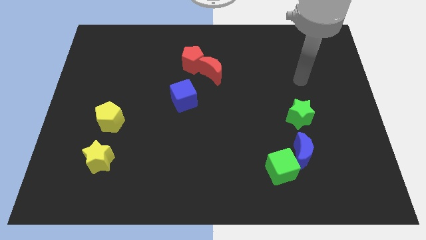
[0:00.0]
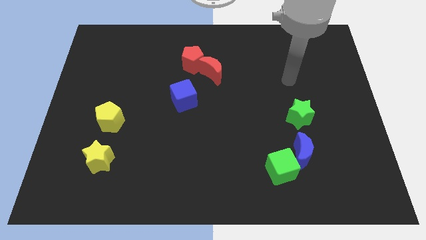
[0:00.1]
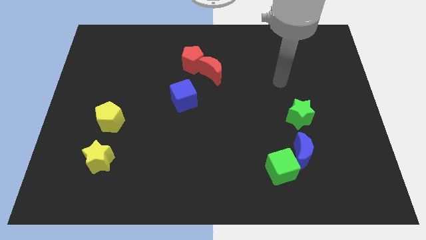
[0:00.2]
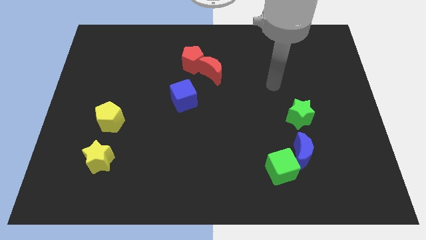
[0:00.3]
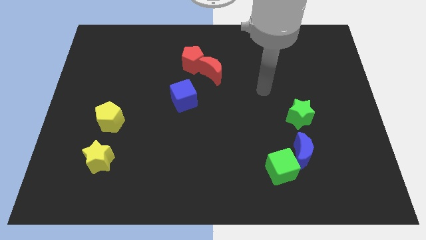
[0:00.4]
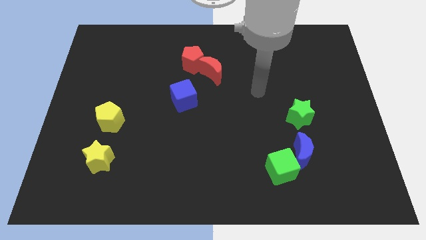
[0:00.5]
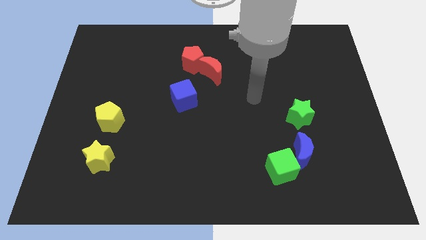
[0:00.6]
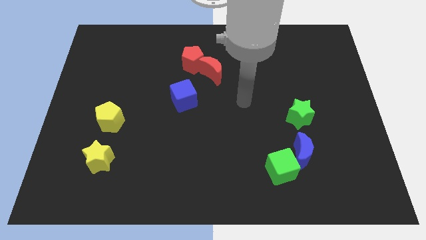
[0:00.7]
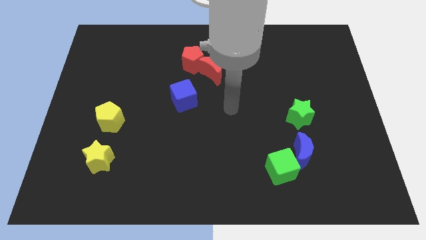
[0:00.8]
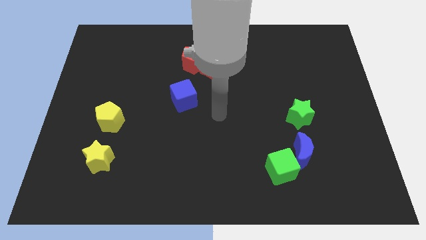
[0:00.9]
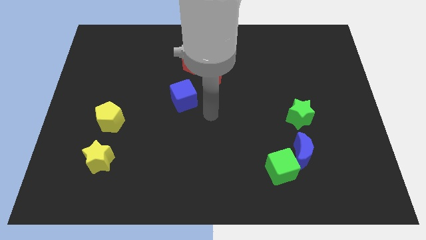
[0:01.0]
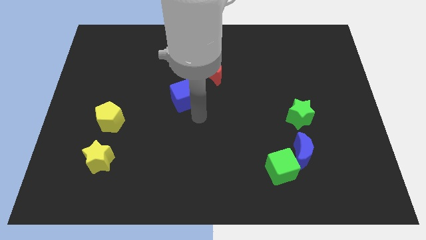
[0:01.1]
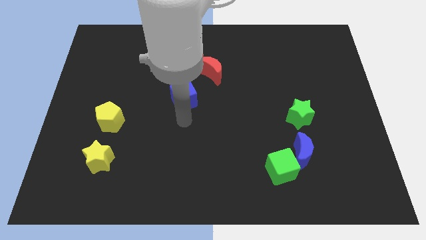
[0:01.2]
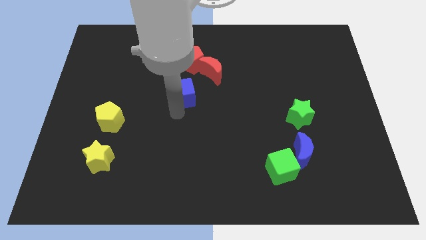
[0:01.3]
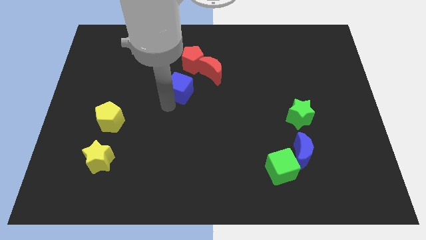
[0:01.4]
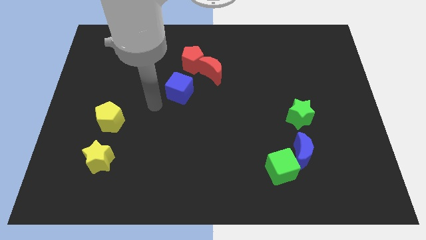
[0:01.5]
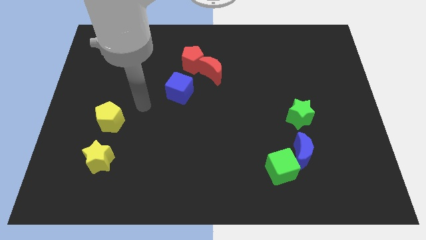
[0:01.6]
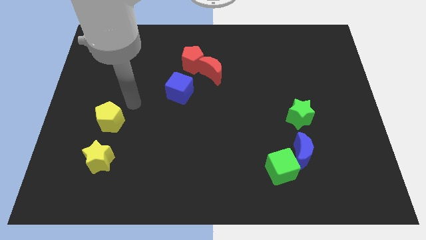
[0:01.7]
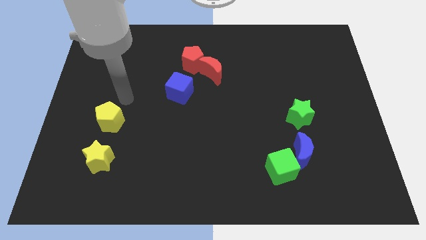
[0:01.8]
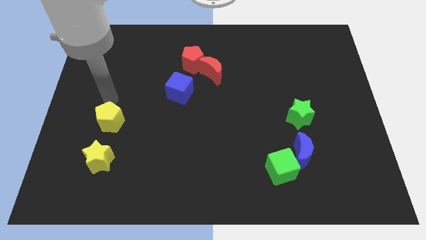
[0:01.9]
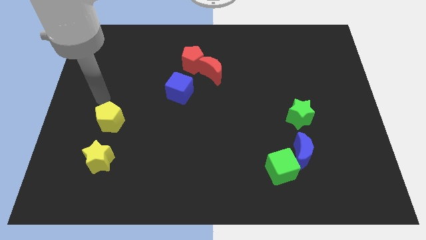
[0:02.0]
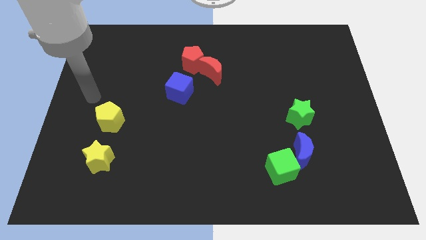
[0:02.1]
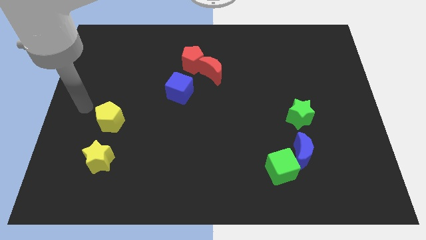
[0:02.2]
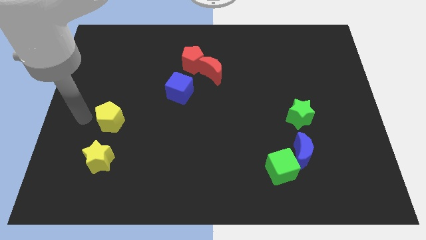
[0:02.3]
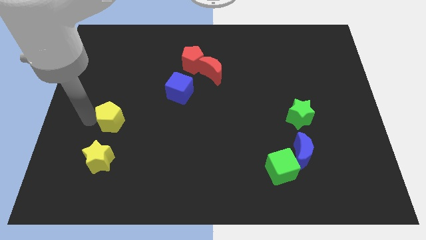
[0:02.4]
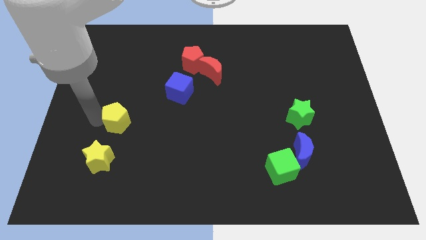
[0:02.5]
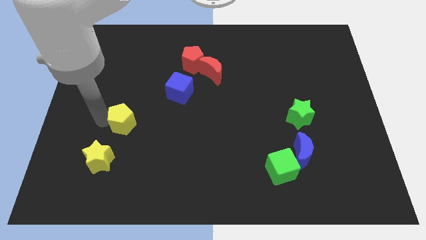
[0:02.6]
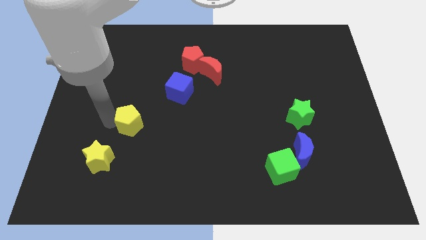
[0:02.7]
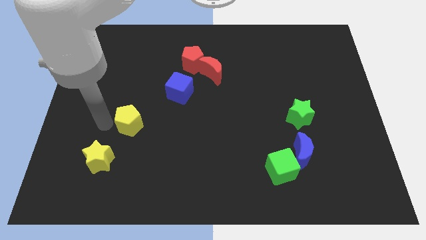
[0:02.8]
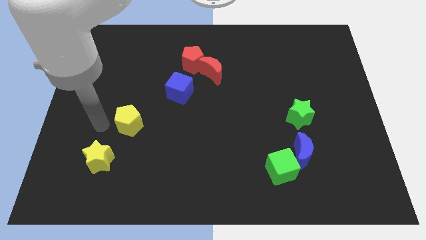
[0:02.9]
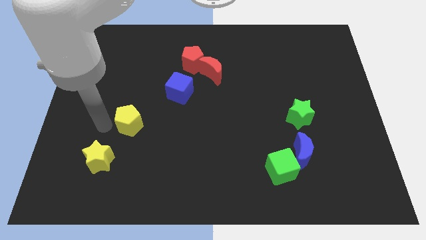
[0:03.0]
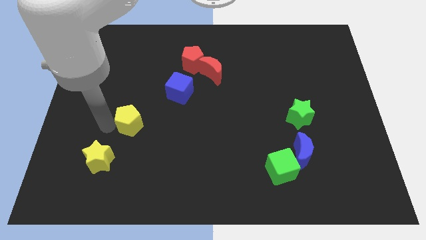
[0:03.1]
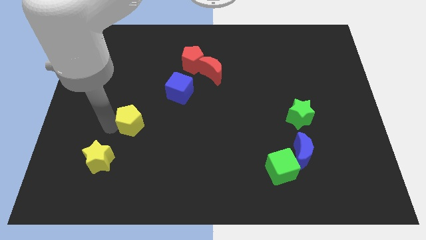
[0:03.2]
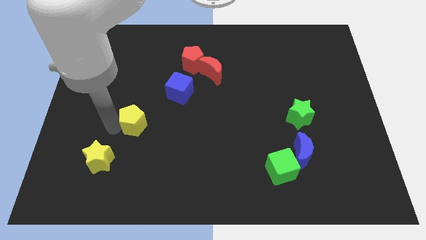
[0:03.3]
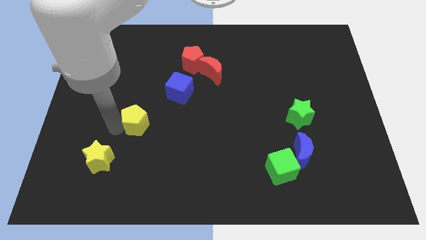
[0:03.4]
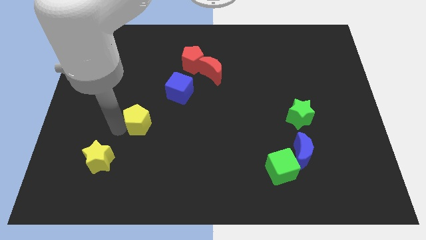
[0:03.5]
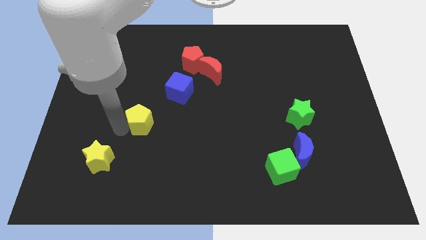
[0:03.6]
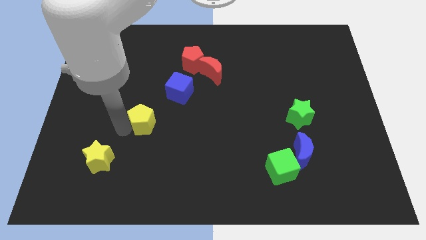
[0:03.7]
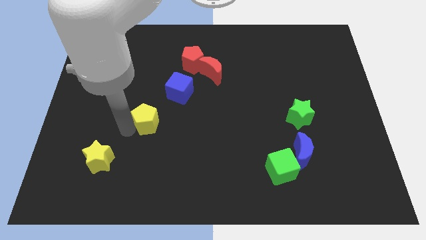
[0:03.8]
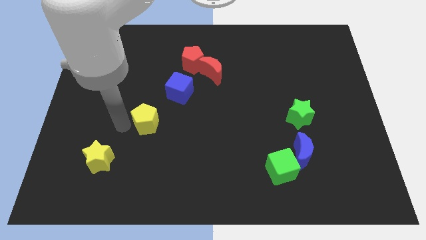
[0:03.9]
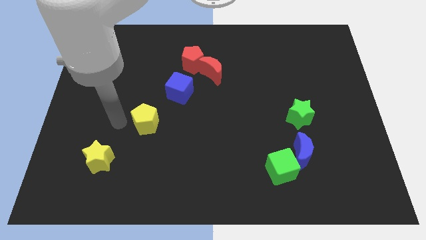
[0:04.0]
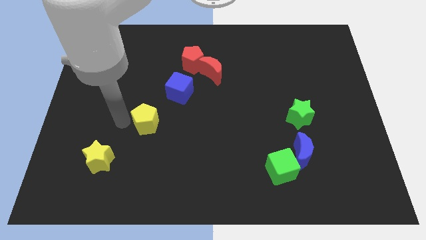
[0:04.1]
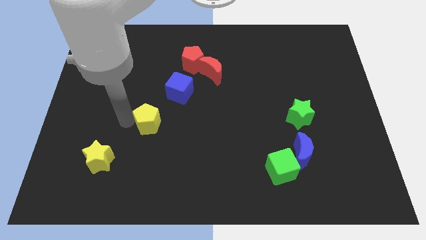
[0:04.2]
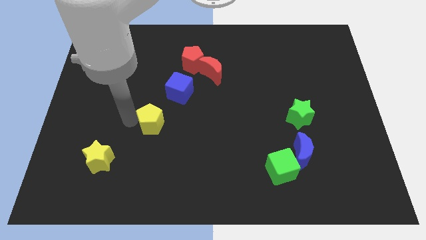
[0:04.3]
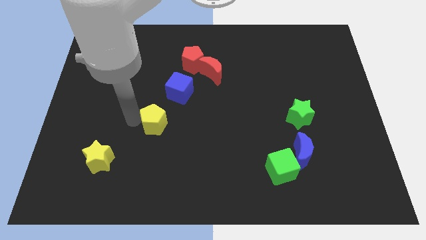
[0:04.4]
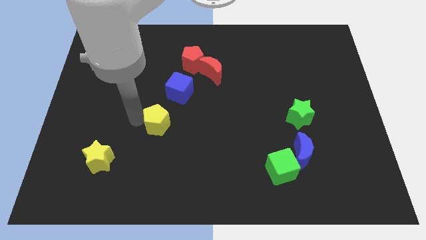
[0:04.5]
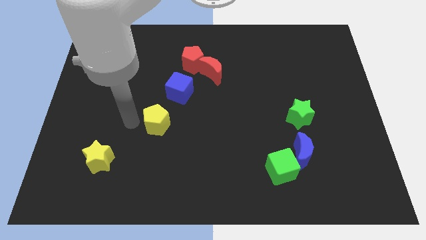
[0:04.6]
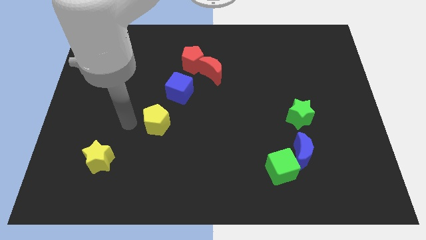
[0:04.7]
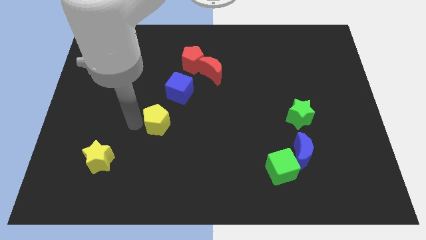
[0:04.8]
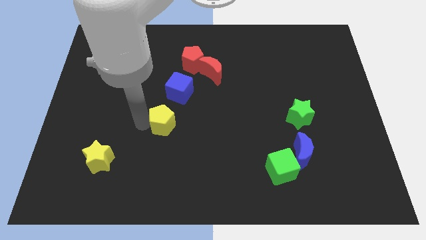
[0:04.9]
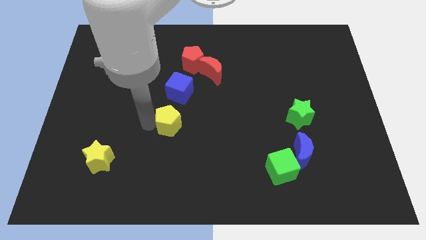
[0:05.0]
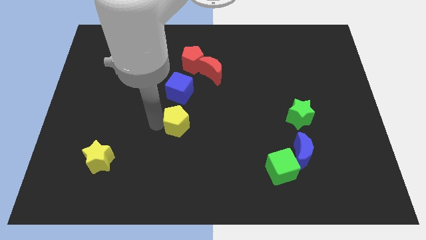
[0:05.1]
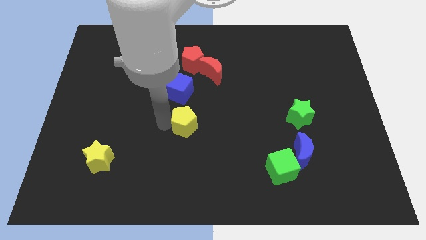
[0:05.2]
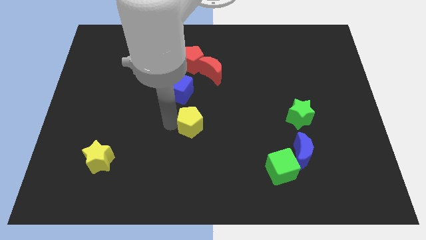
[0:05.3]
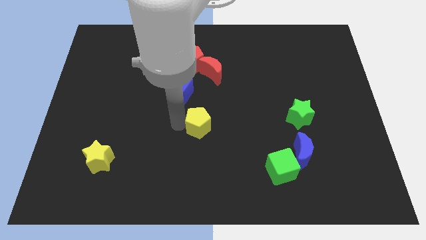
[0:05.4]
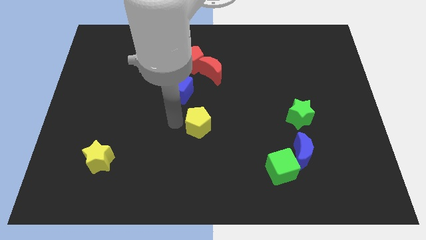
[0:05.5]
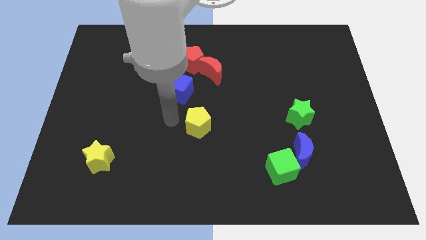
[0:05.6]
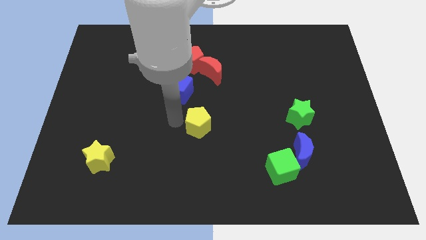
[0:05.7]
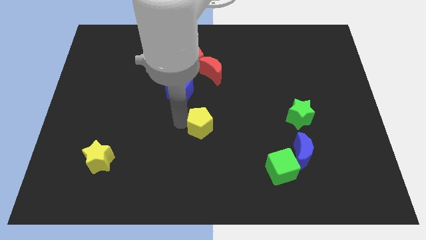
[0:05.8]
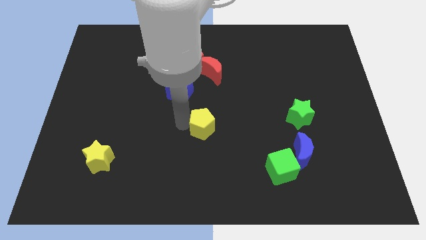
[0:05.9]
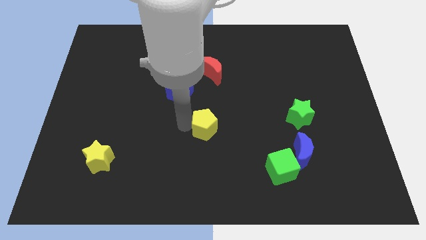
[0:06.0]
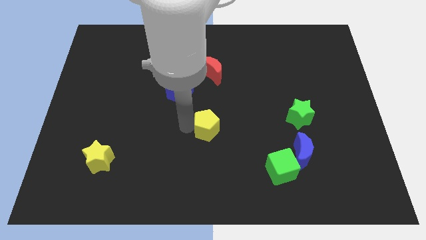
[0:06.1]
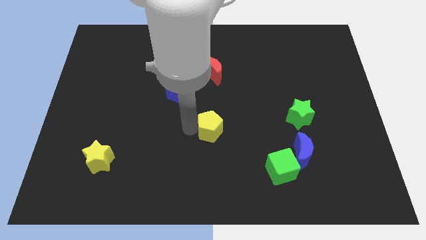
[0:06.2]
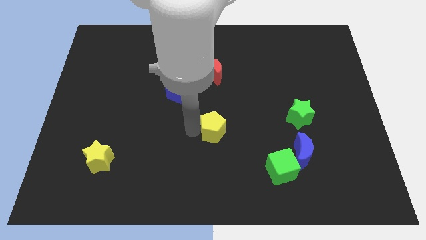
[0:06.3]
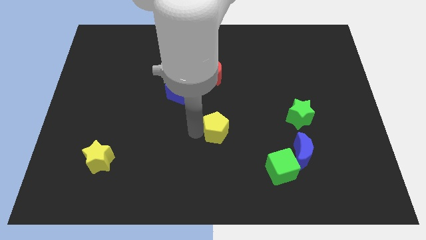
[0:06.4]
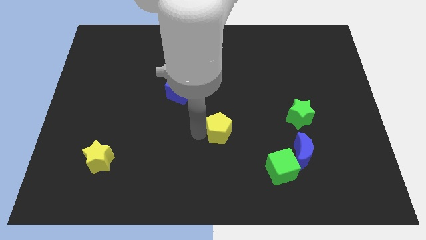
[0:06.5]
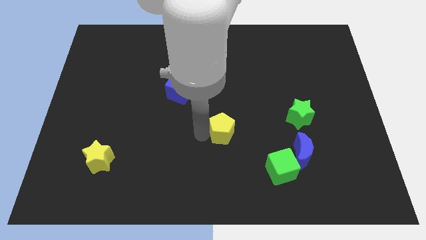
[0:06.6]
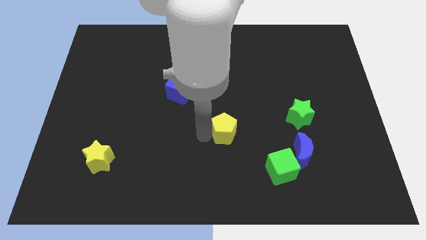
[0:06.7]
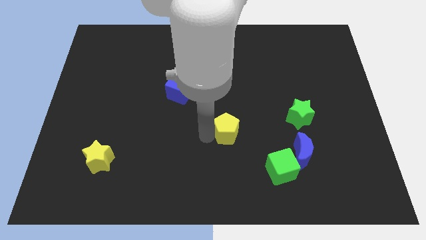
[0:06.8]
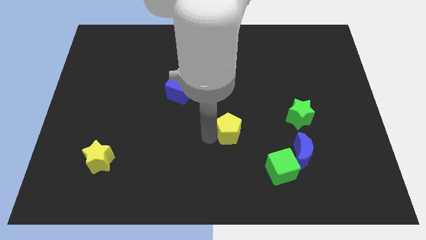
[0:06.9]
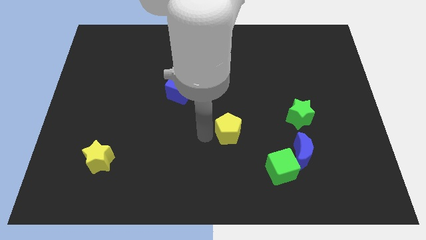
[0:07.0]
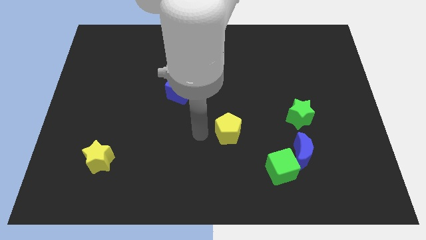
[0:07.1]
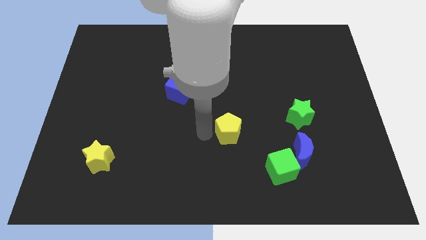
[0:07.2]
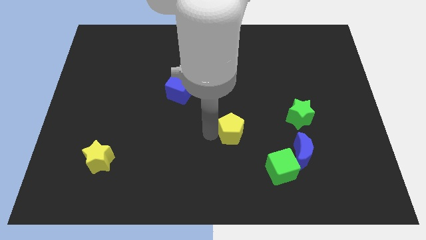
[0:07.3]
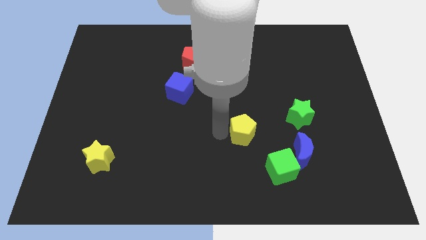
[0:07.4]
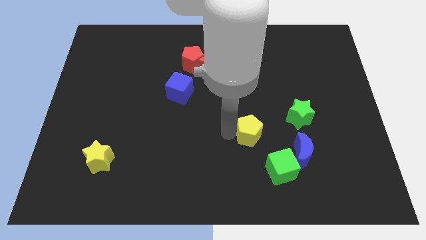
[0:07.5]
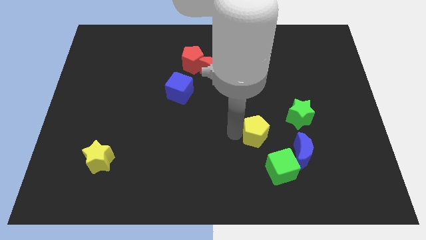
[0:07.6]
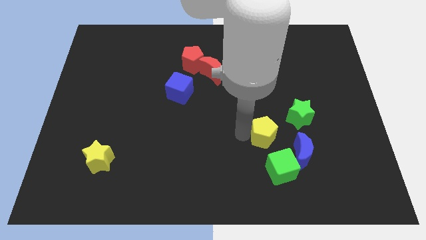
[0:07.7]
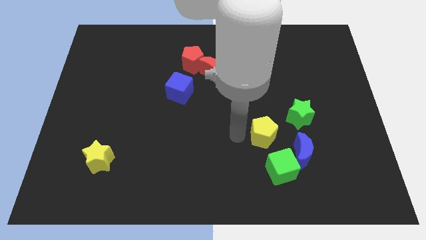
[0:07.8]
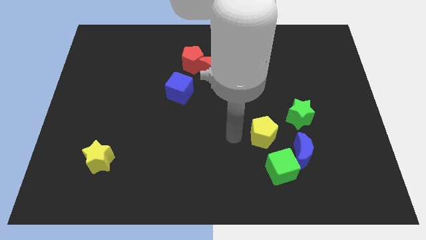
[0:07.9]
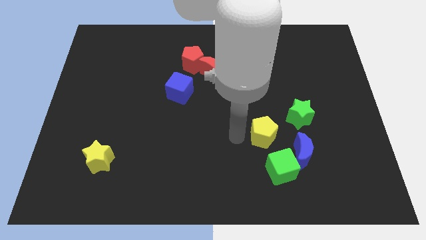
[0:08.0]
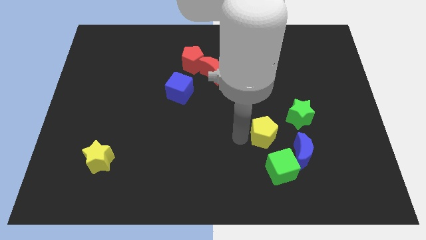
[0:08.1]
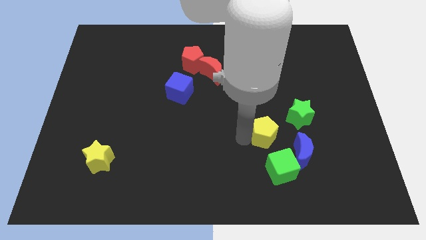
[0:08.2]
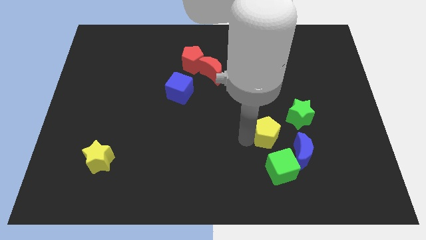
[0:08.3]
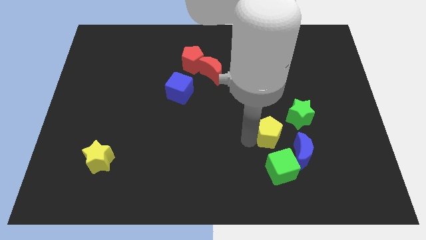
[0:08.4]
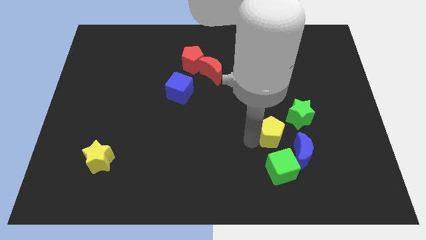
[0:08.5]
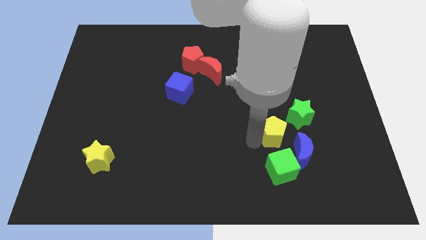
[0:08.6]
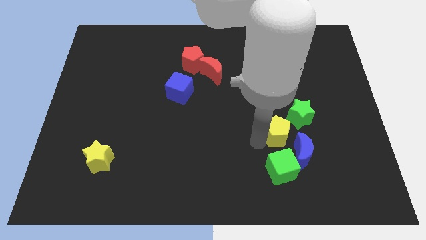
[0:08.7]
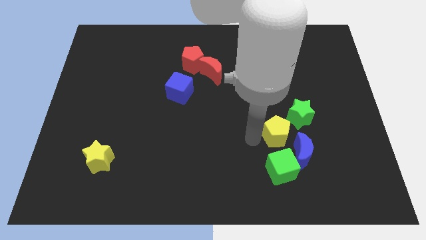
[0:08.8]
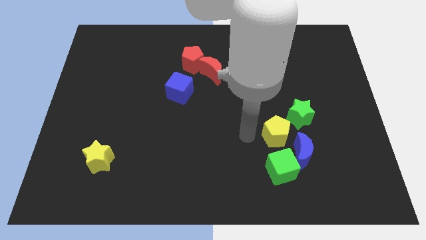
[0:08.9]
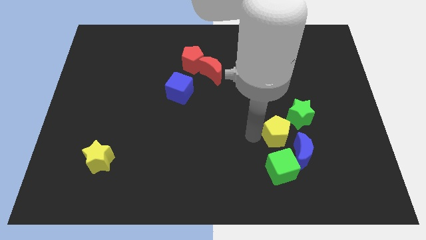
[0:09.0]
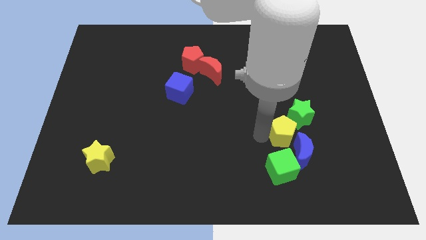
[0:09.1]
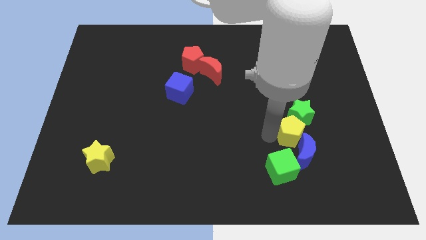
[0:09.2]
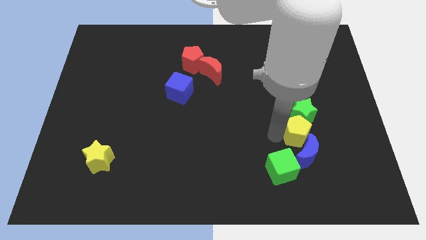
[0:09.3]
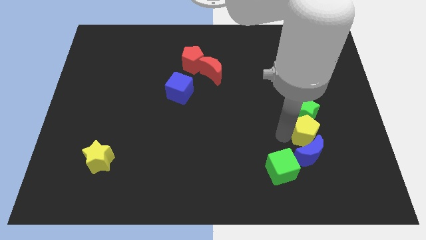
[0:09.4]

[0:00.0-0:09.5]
slide the yellow pentagon to the bottom right of the green star
